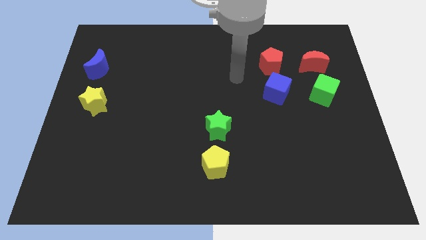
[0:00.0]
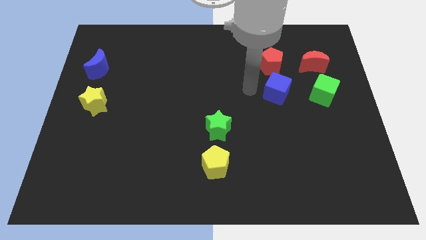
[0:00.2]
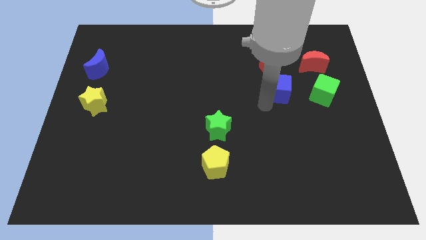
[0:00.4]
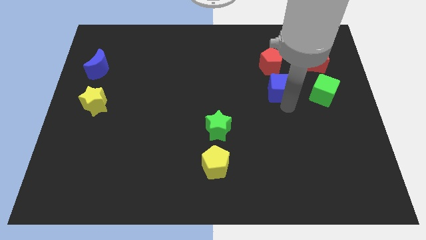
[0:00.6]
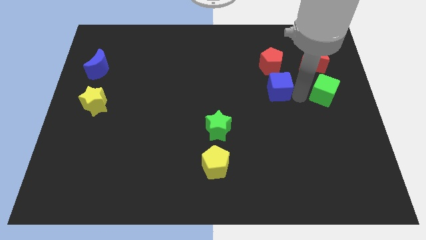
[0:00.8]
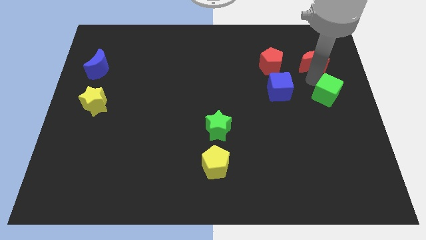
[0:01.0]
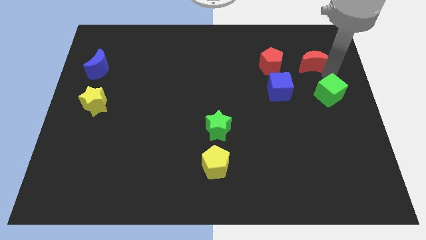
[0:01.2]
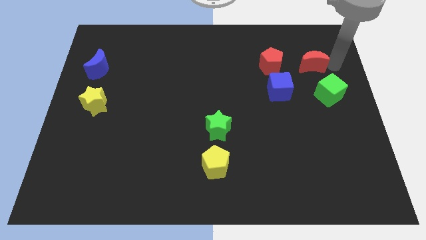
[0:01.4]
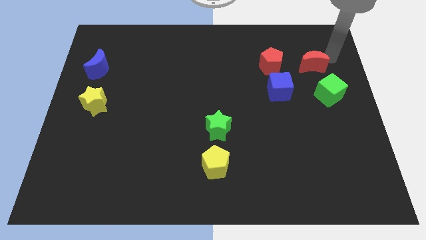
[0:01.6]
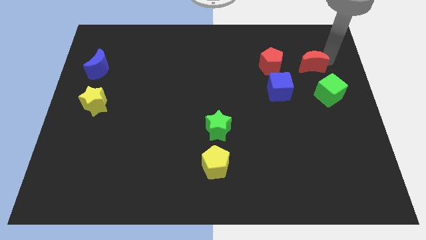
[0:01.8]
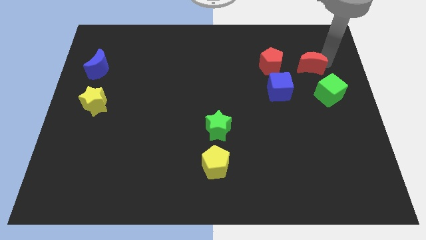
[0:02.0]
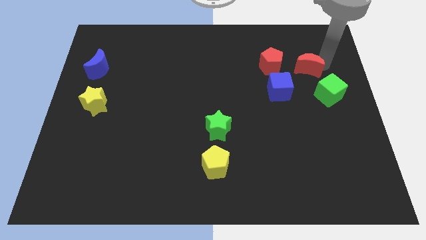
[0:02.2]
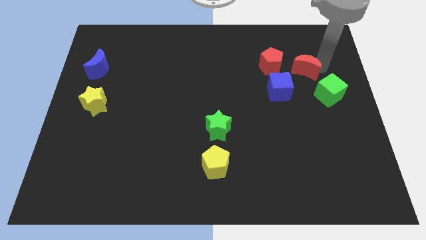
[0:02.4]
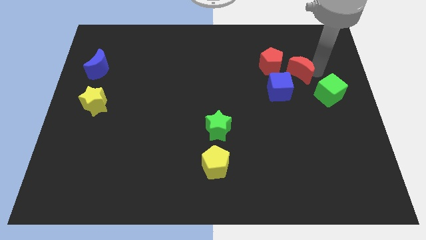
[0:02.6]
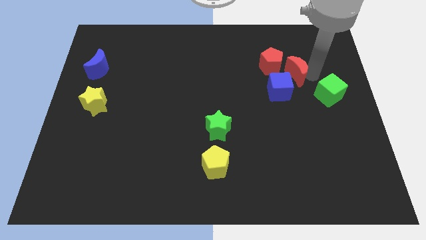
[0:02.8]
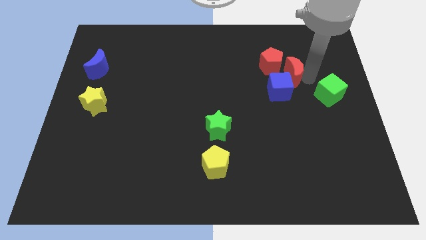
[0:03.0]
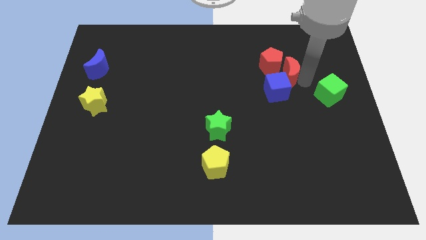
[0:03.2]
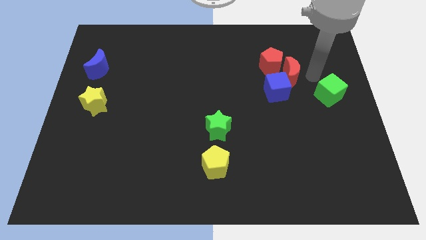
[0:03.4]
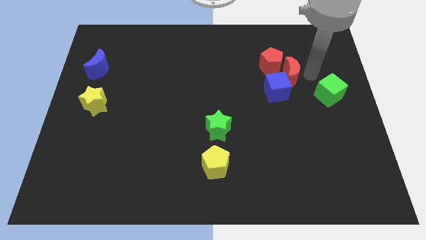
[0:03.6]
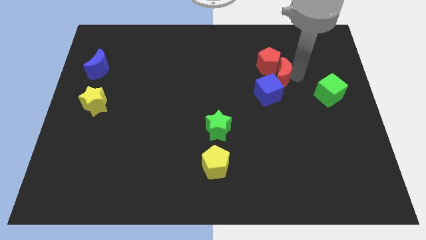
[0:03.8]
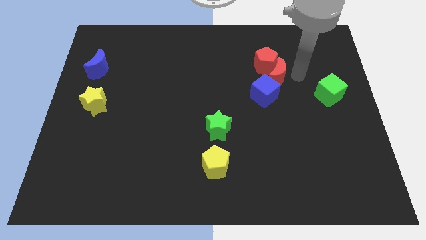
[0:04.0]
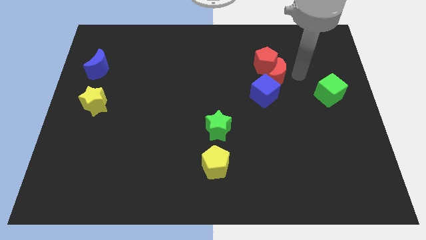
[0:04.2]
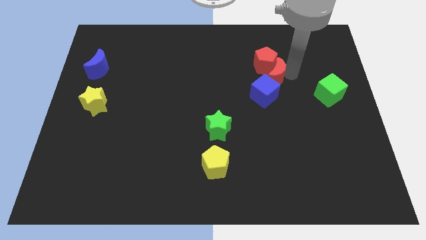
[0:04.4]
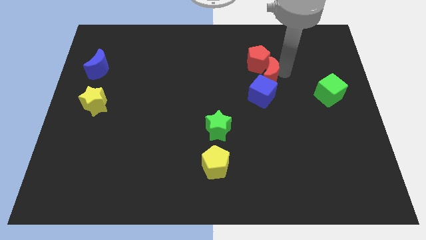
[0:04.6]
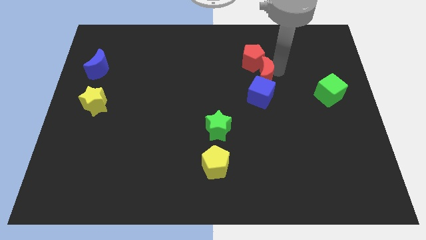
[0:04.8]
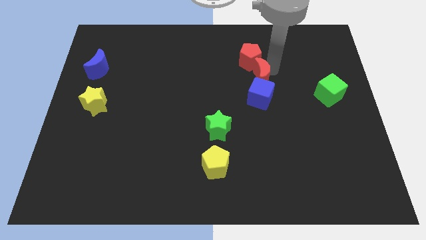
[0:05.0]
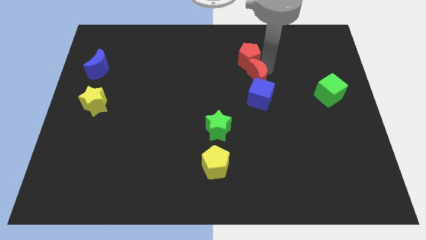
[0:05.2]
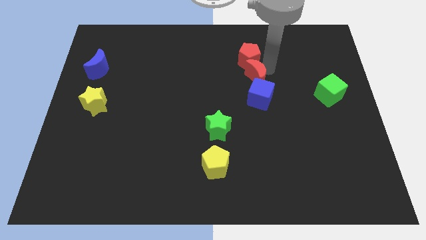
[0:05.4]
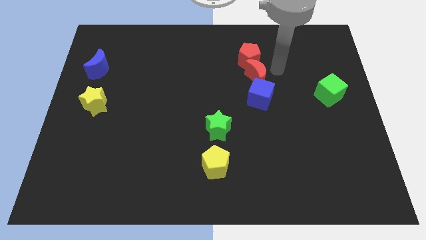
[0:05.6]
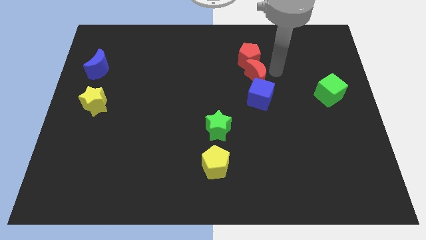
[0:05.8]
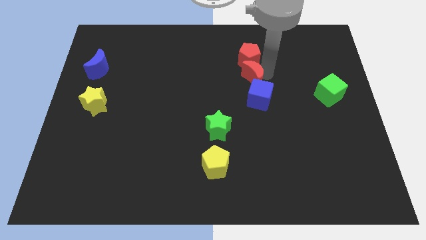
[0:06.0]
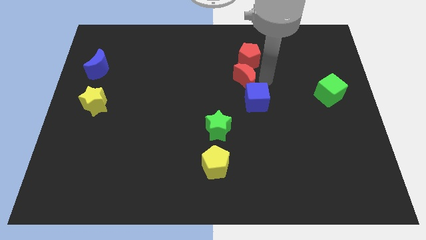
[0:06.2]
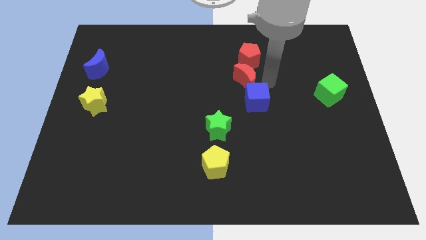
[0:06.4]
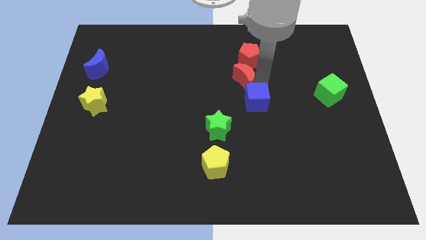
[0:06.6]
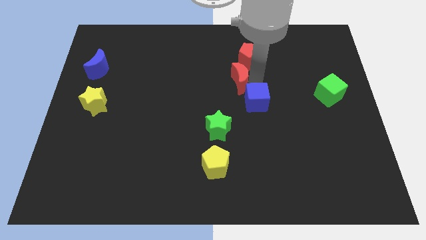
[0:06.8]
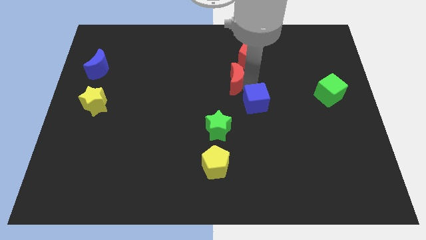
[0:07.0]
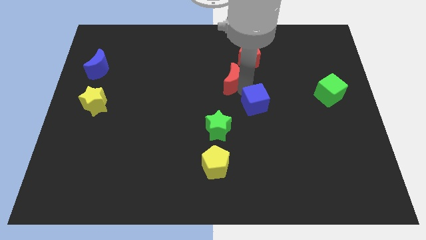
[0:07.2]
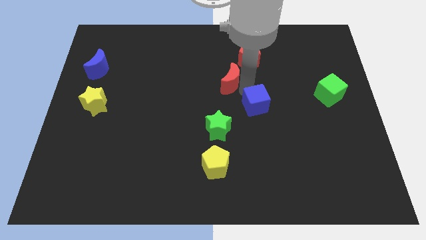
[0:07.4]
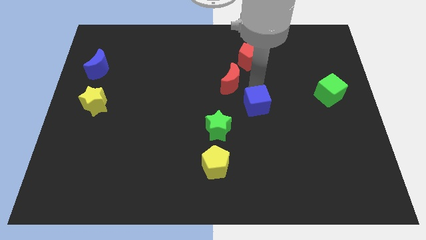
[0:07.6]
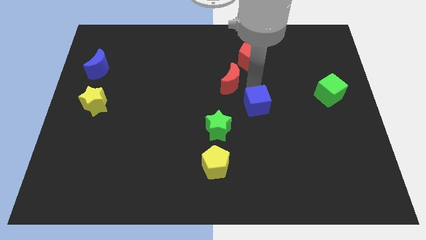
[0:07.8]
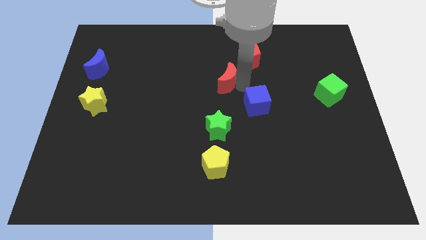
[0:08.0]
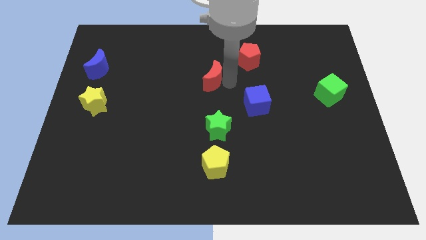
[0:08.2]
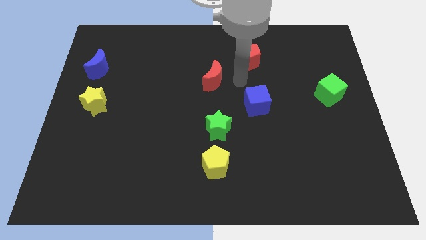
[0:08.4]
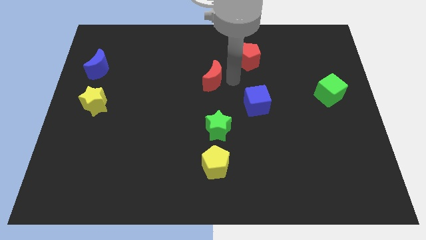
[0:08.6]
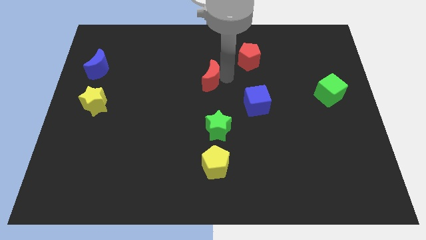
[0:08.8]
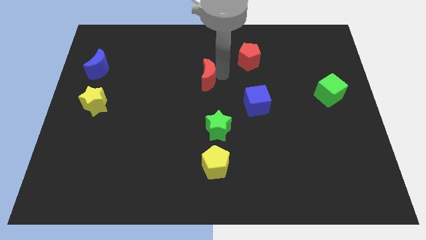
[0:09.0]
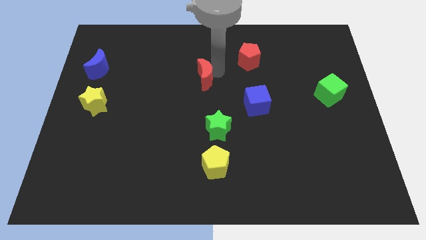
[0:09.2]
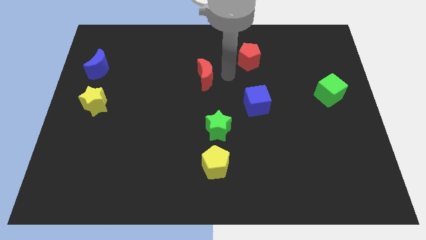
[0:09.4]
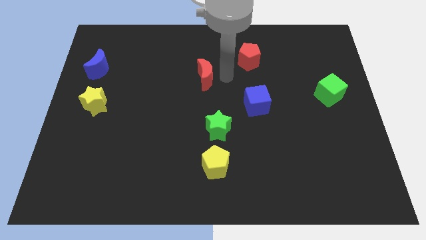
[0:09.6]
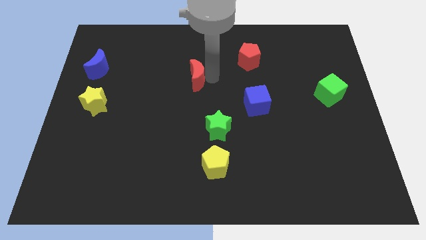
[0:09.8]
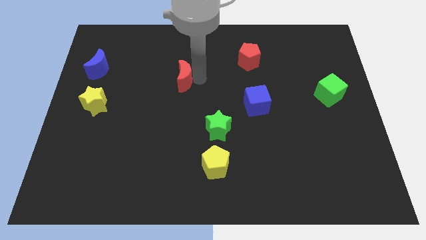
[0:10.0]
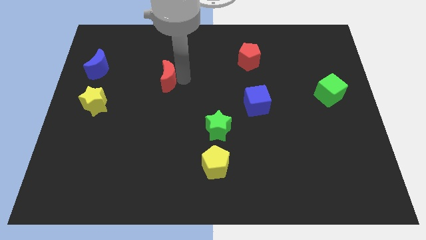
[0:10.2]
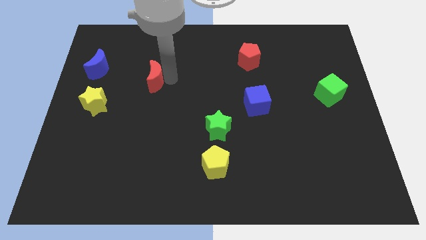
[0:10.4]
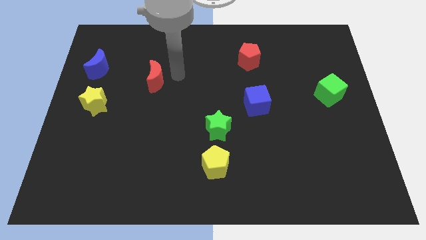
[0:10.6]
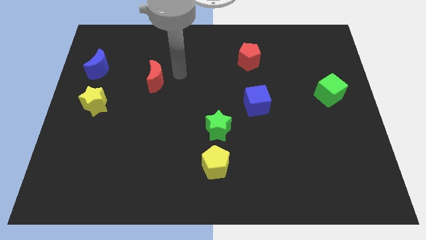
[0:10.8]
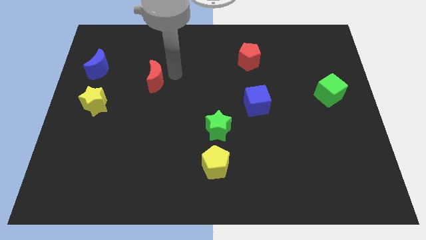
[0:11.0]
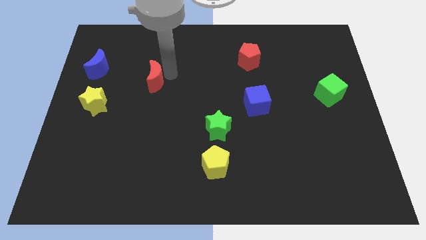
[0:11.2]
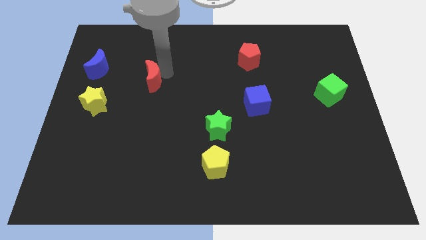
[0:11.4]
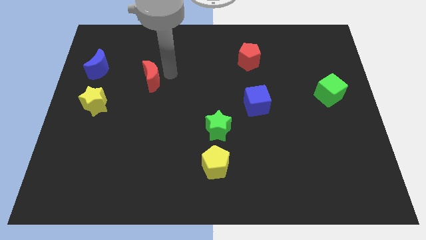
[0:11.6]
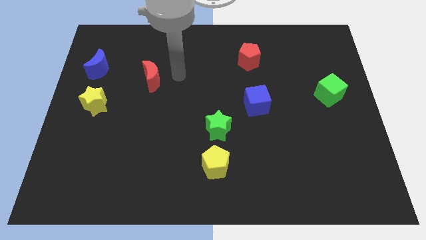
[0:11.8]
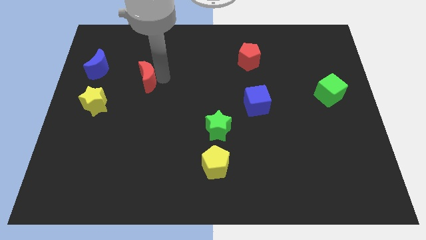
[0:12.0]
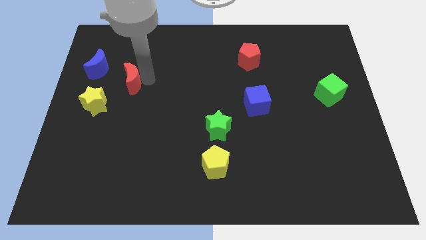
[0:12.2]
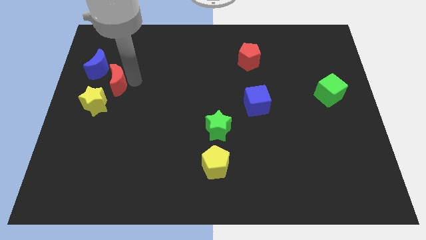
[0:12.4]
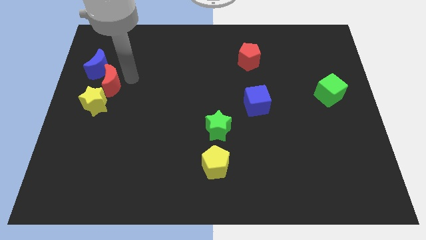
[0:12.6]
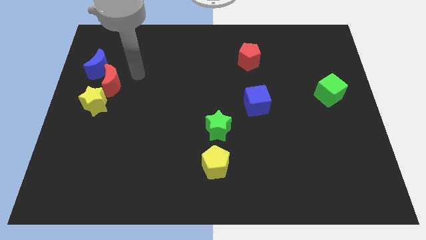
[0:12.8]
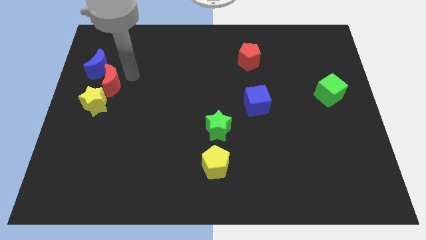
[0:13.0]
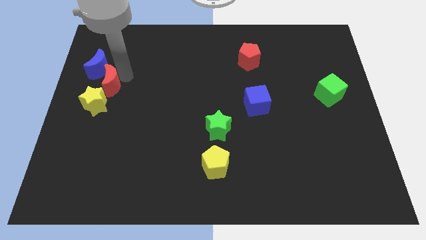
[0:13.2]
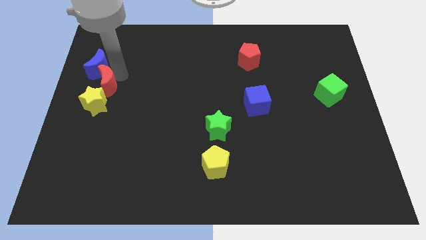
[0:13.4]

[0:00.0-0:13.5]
put the red moon to the left side of the board

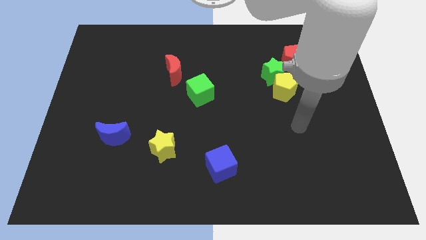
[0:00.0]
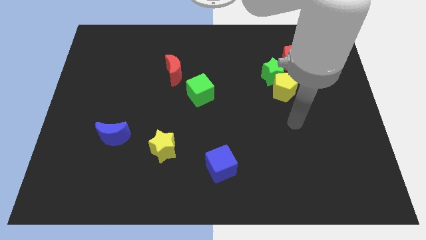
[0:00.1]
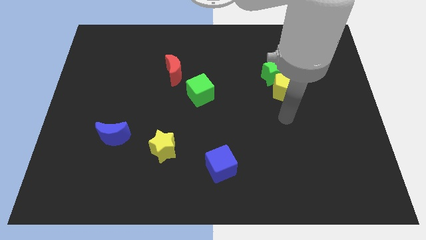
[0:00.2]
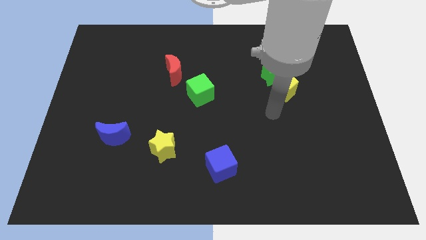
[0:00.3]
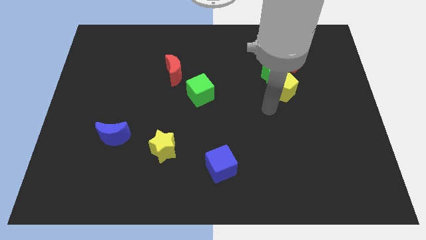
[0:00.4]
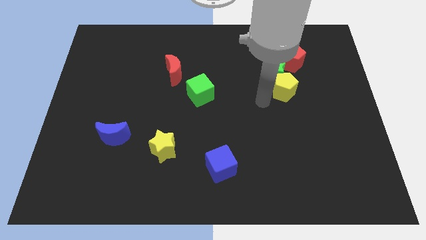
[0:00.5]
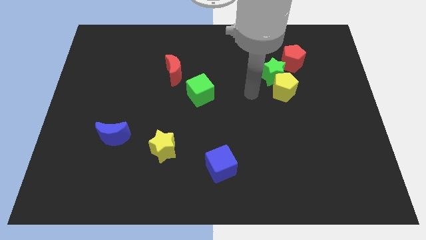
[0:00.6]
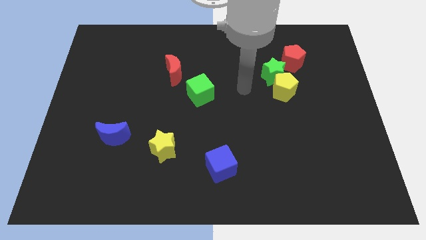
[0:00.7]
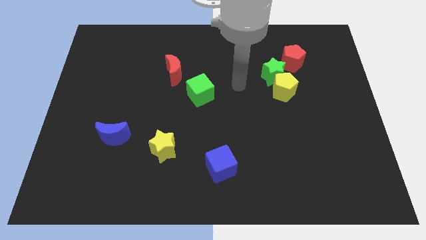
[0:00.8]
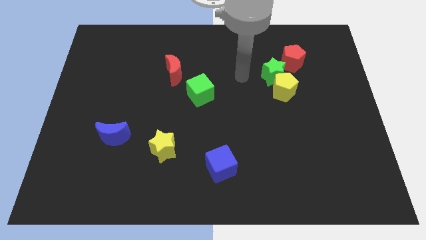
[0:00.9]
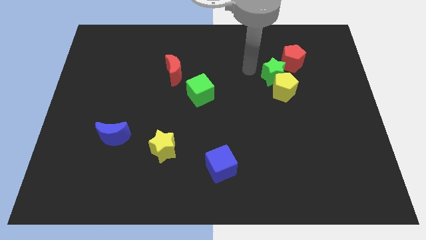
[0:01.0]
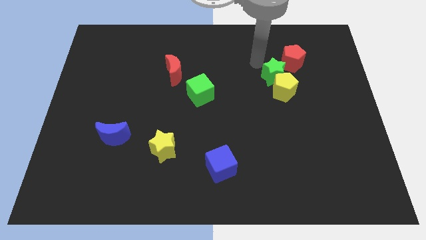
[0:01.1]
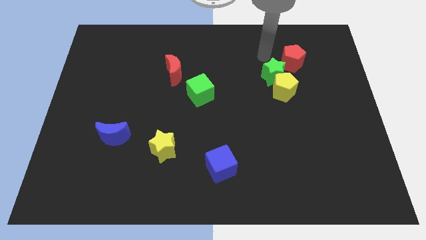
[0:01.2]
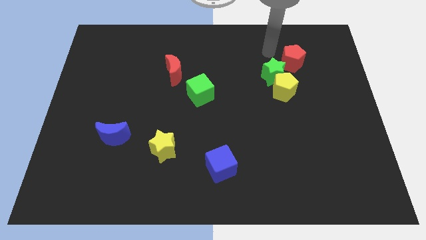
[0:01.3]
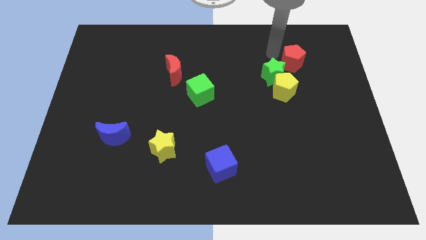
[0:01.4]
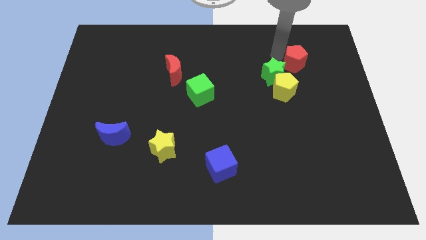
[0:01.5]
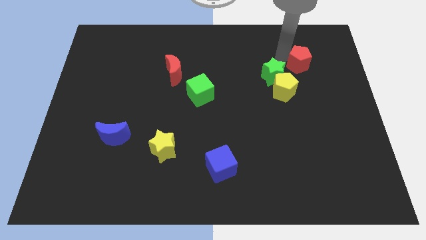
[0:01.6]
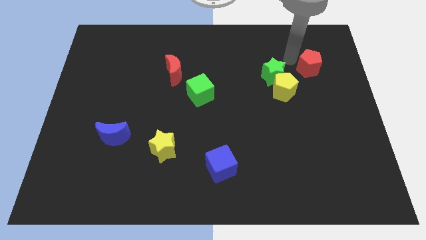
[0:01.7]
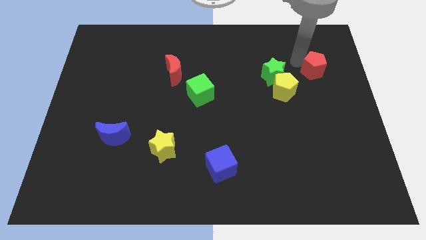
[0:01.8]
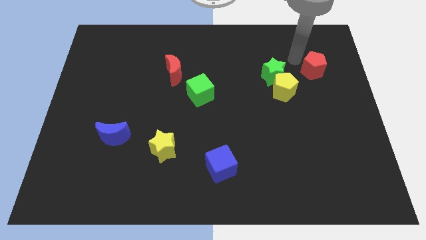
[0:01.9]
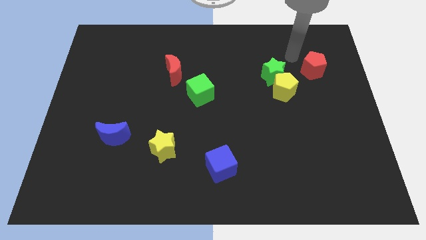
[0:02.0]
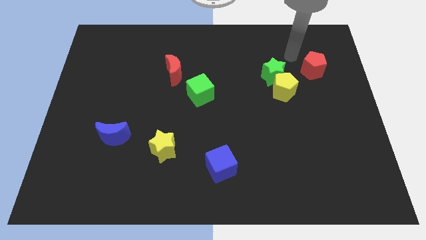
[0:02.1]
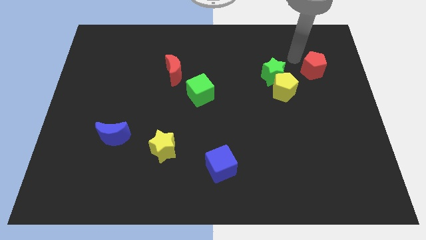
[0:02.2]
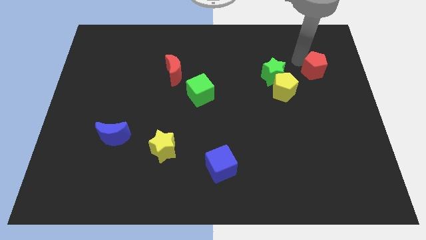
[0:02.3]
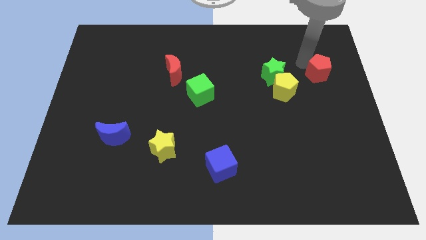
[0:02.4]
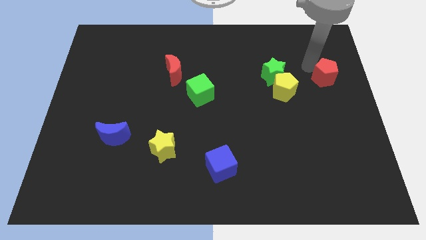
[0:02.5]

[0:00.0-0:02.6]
push the red pentagon to the right side of the board
